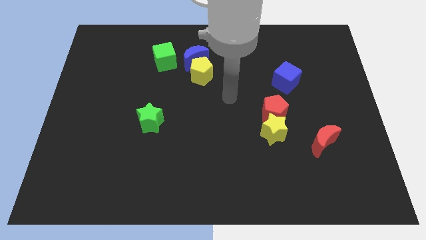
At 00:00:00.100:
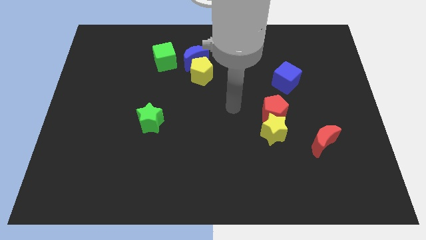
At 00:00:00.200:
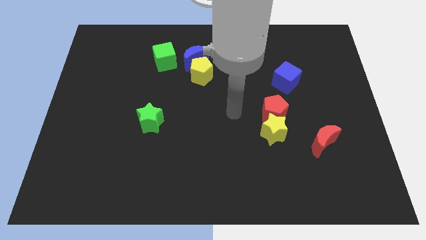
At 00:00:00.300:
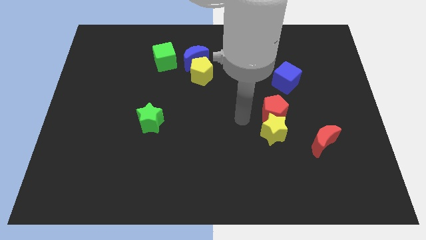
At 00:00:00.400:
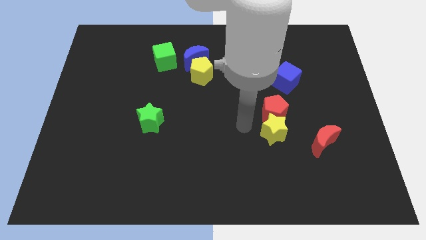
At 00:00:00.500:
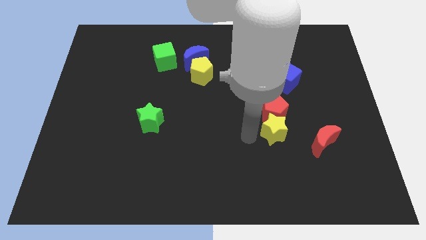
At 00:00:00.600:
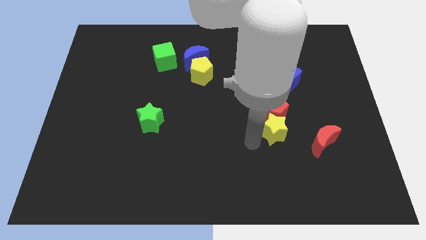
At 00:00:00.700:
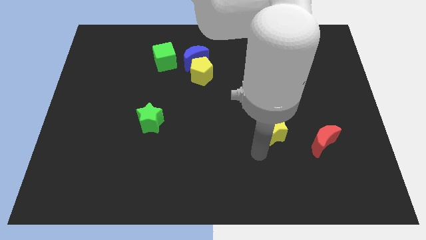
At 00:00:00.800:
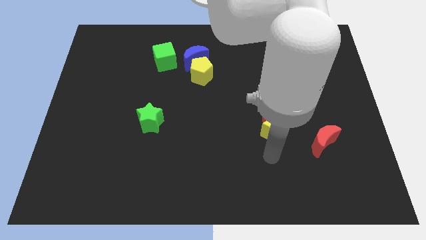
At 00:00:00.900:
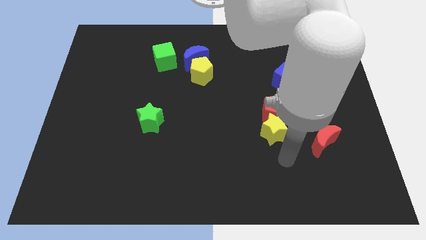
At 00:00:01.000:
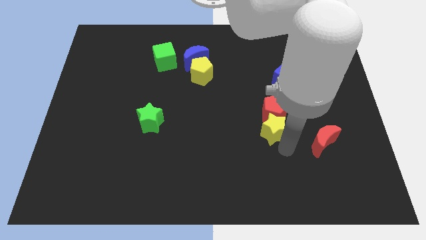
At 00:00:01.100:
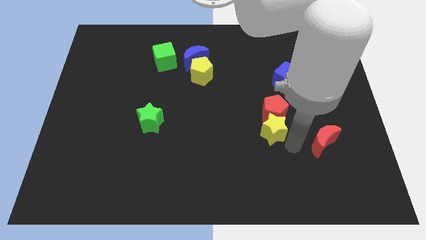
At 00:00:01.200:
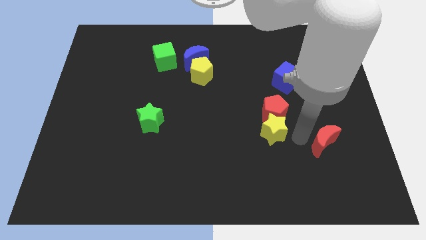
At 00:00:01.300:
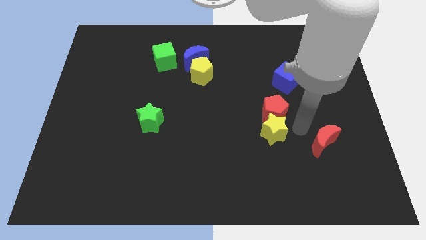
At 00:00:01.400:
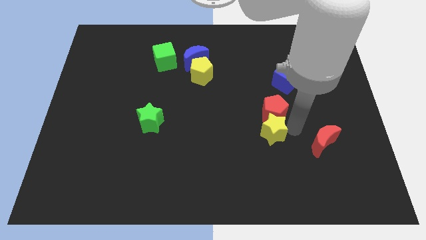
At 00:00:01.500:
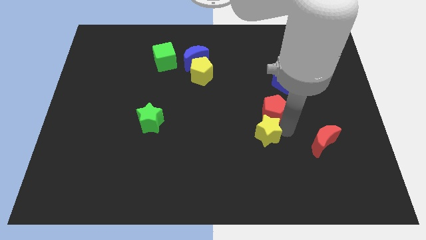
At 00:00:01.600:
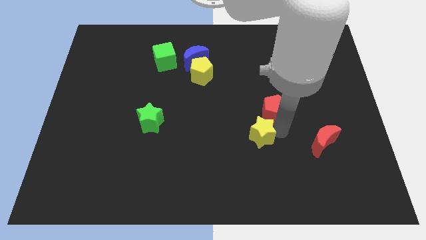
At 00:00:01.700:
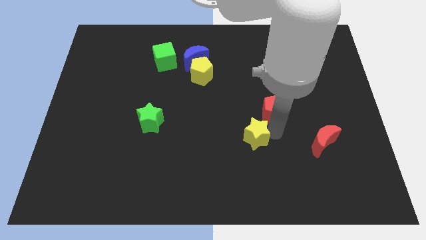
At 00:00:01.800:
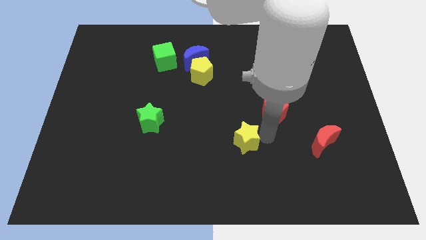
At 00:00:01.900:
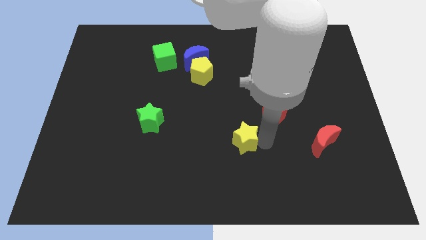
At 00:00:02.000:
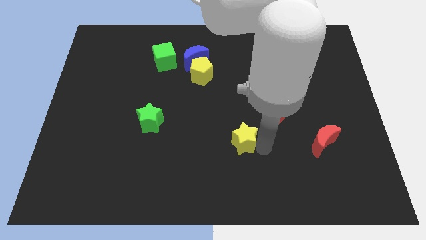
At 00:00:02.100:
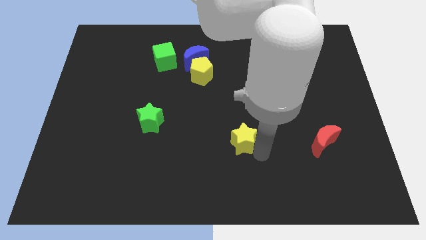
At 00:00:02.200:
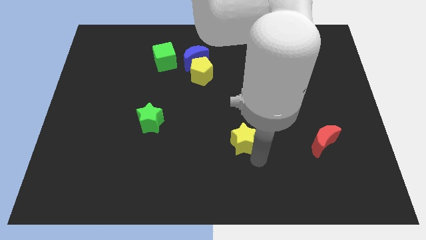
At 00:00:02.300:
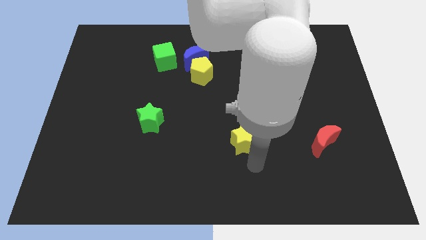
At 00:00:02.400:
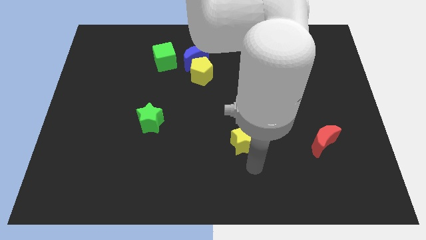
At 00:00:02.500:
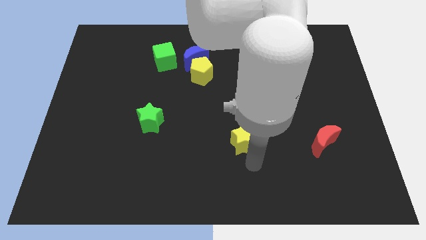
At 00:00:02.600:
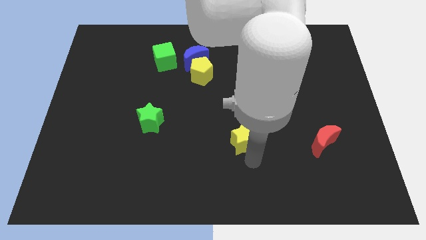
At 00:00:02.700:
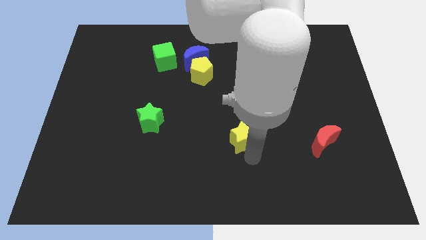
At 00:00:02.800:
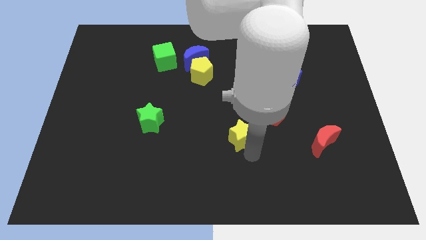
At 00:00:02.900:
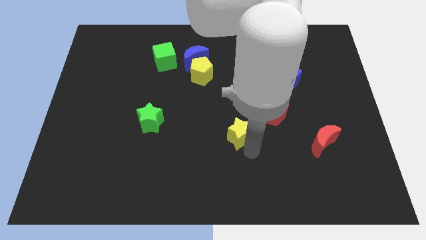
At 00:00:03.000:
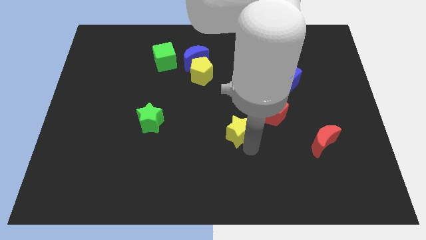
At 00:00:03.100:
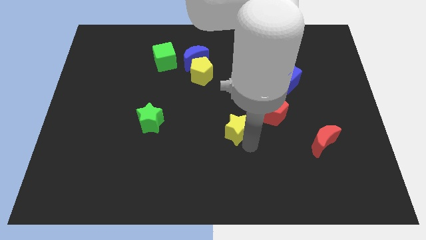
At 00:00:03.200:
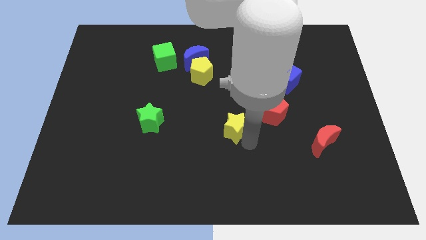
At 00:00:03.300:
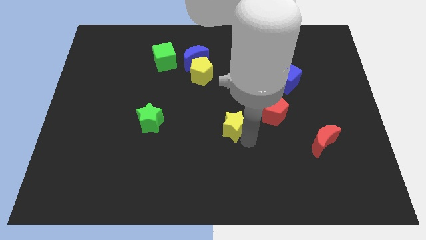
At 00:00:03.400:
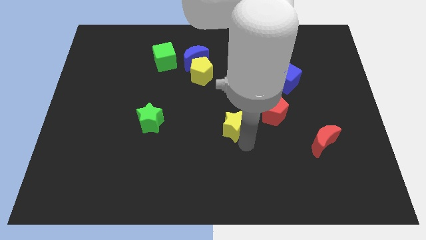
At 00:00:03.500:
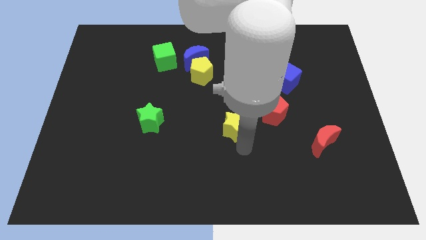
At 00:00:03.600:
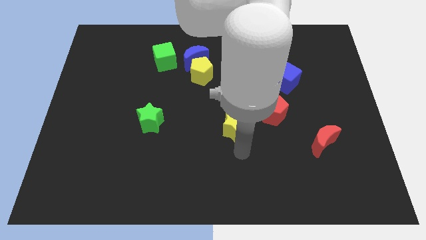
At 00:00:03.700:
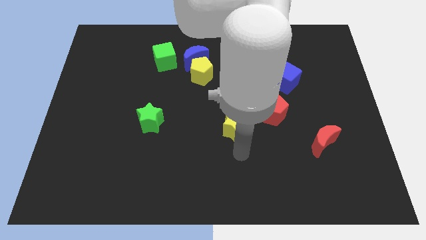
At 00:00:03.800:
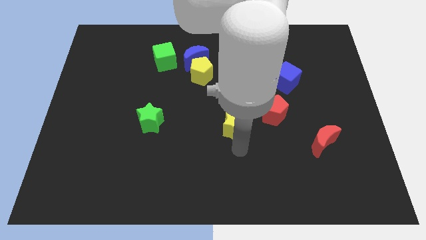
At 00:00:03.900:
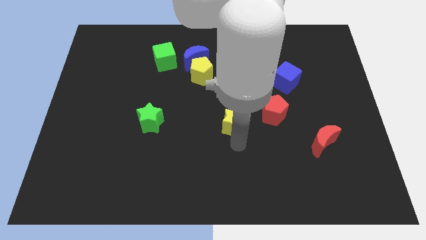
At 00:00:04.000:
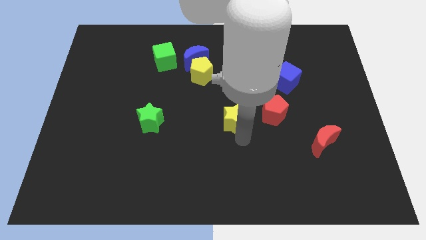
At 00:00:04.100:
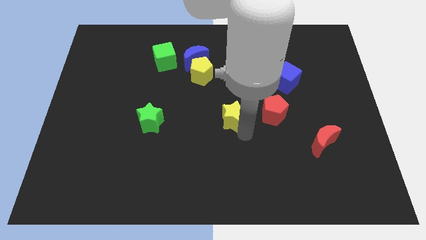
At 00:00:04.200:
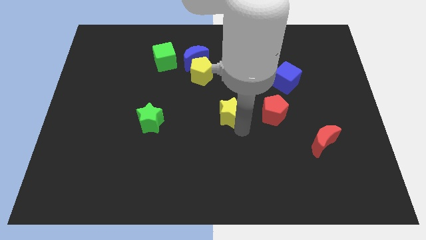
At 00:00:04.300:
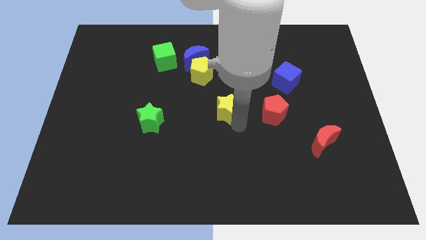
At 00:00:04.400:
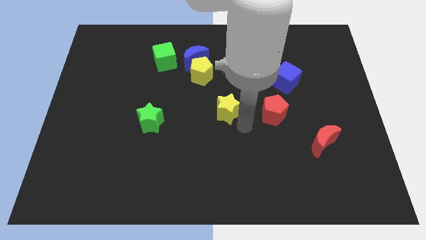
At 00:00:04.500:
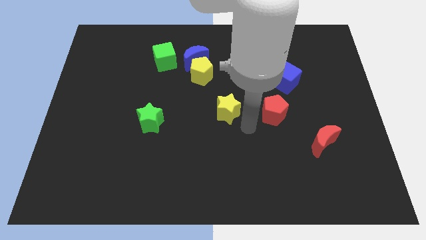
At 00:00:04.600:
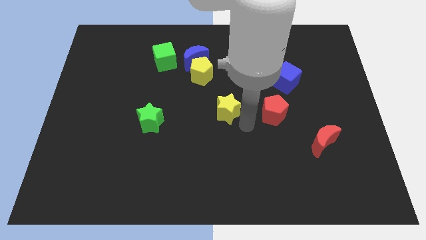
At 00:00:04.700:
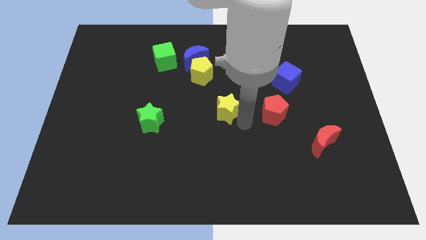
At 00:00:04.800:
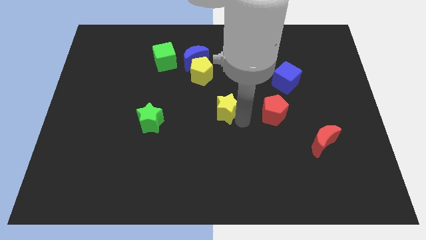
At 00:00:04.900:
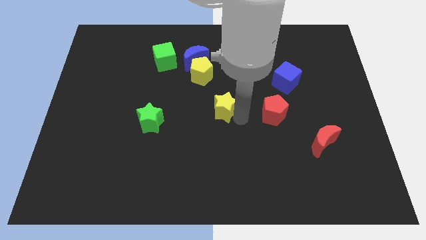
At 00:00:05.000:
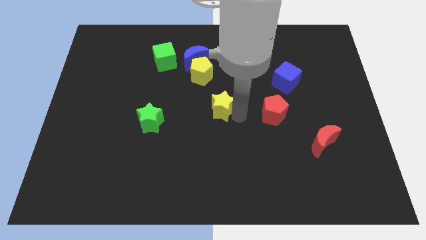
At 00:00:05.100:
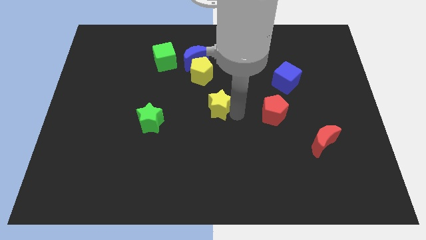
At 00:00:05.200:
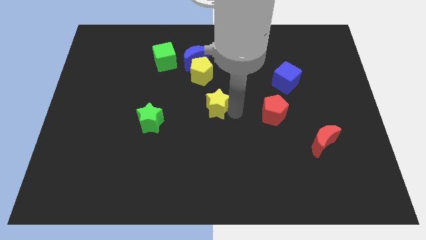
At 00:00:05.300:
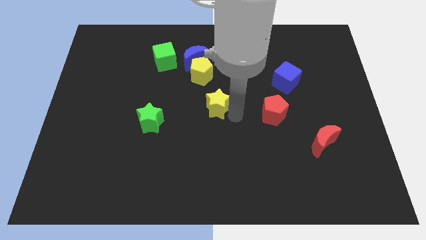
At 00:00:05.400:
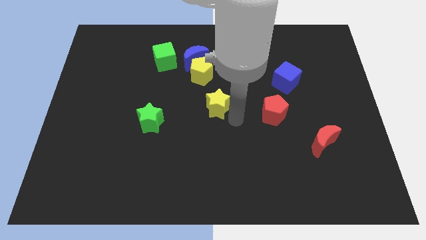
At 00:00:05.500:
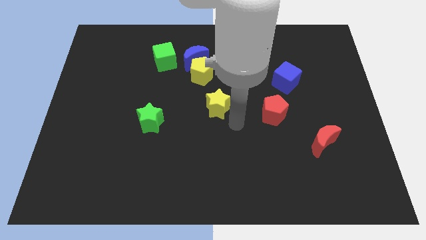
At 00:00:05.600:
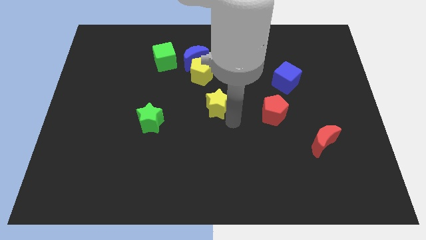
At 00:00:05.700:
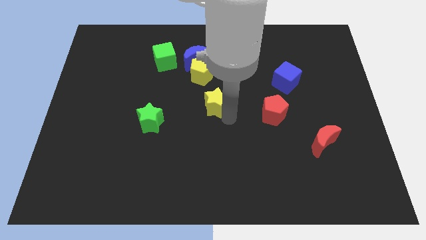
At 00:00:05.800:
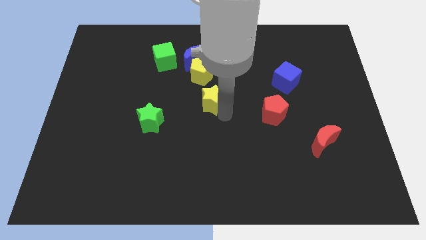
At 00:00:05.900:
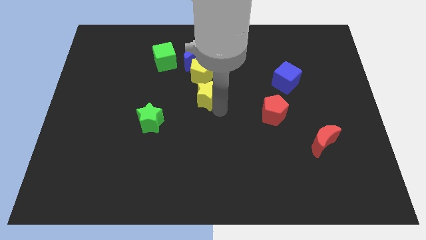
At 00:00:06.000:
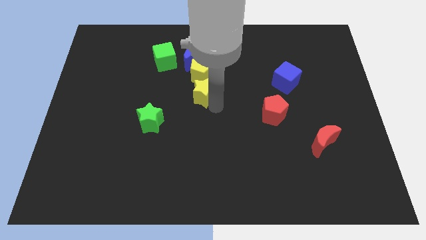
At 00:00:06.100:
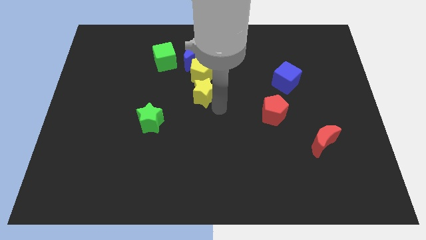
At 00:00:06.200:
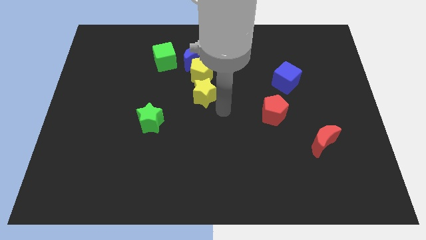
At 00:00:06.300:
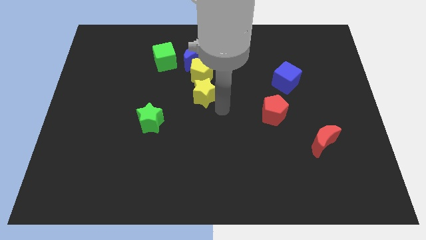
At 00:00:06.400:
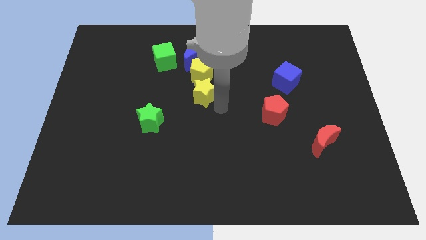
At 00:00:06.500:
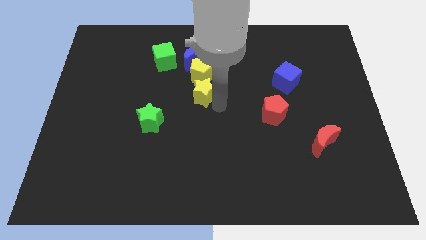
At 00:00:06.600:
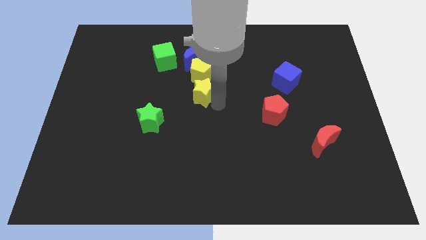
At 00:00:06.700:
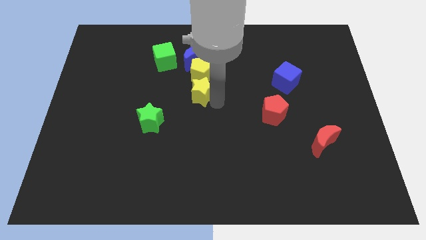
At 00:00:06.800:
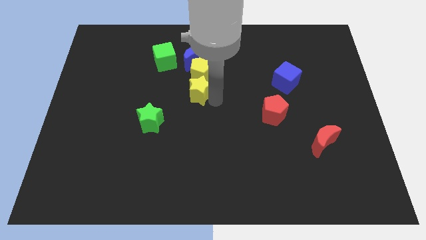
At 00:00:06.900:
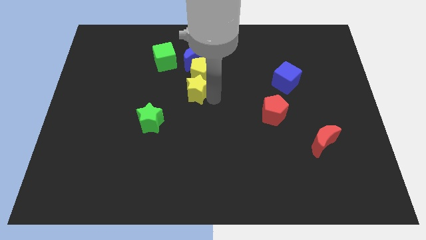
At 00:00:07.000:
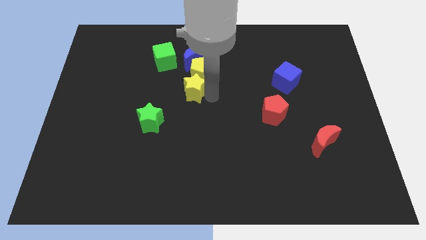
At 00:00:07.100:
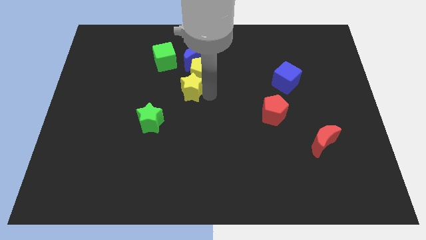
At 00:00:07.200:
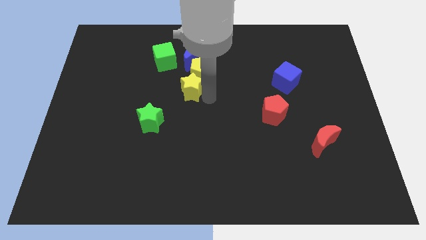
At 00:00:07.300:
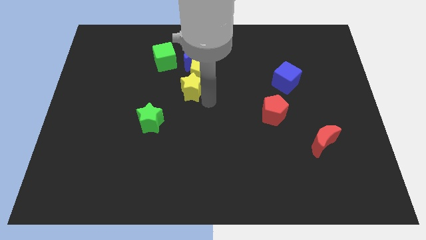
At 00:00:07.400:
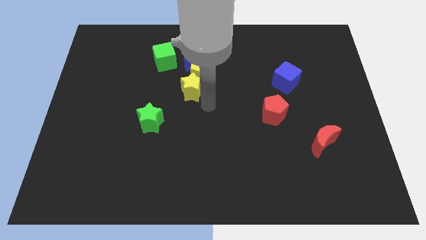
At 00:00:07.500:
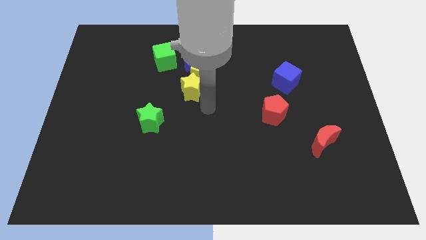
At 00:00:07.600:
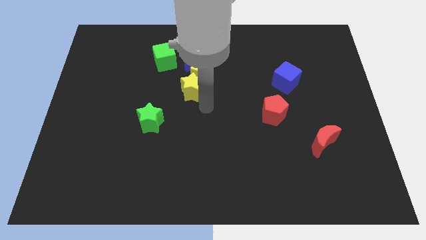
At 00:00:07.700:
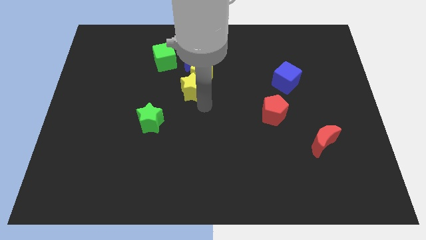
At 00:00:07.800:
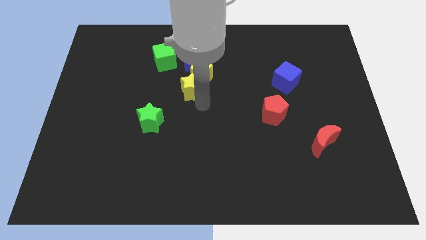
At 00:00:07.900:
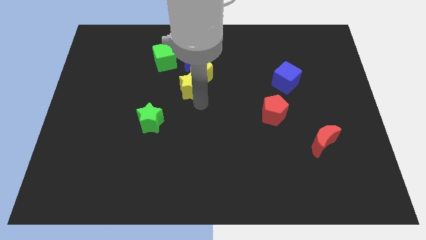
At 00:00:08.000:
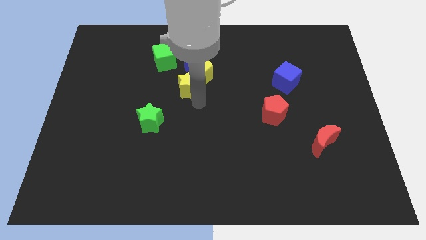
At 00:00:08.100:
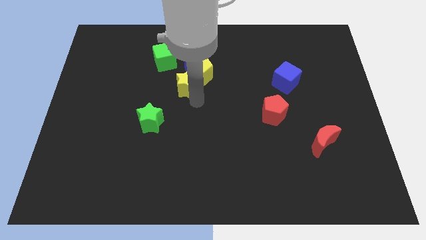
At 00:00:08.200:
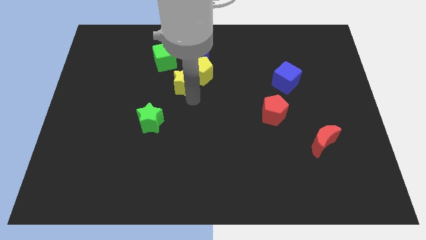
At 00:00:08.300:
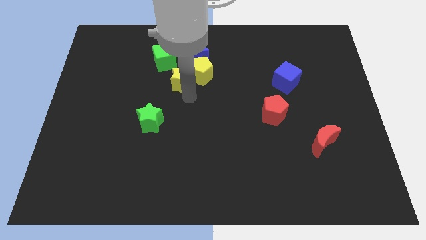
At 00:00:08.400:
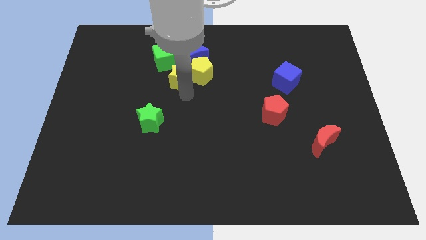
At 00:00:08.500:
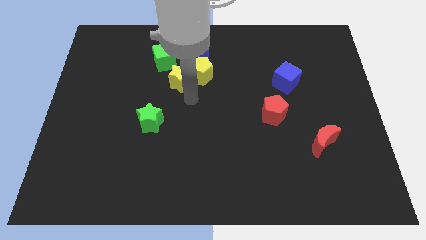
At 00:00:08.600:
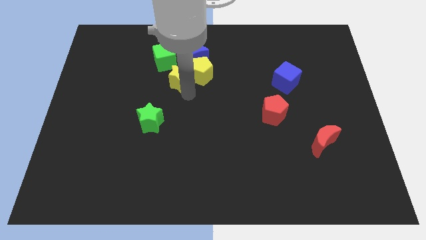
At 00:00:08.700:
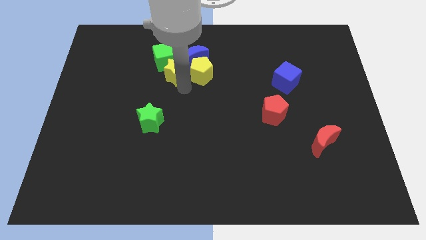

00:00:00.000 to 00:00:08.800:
put the yellow star towards the green cube
